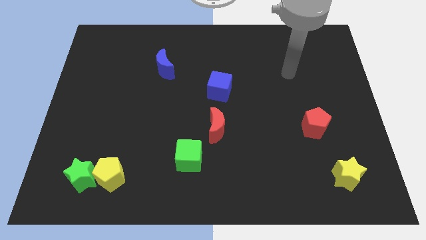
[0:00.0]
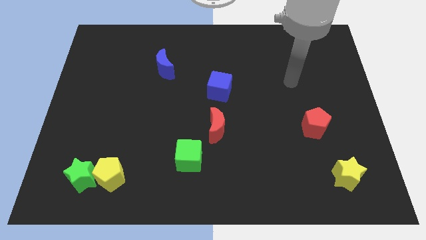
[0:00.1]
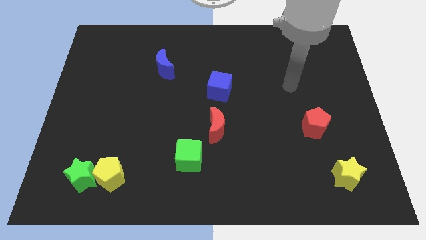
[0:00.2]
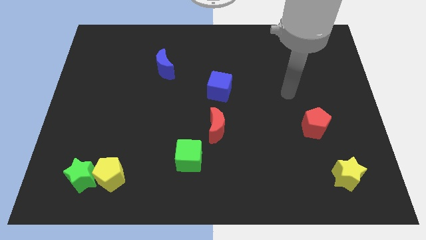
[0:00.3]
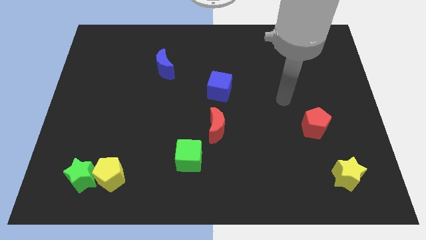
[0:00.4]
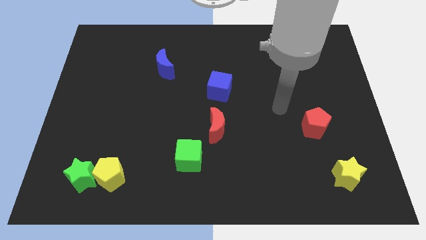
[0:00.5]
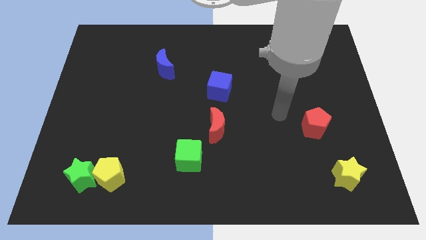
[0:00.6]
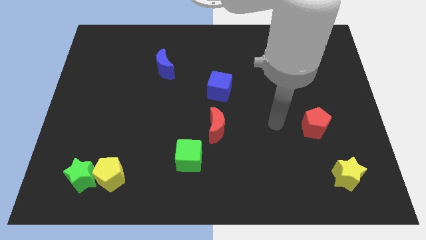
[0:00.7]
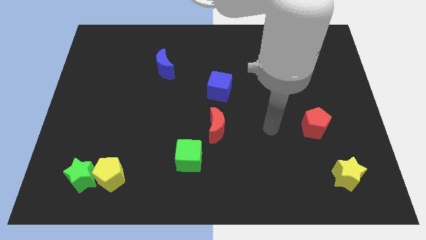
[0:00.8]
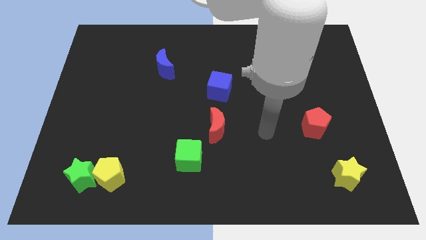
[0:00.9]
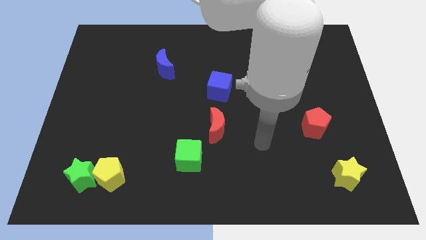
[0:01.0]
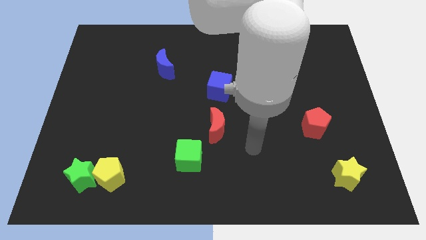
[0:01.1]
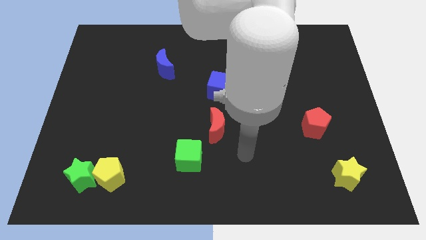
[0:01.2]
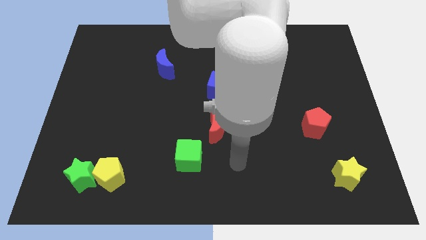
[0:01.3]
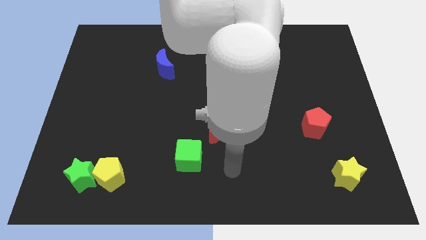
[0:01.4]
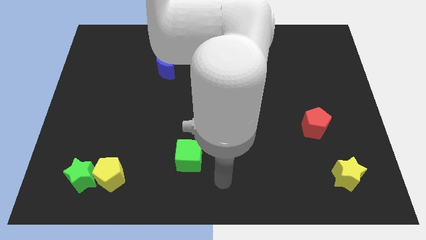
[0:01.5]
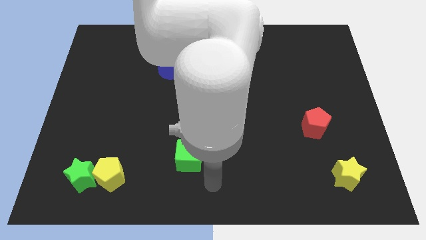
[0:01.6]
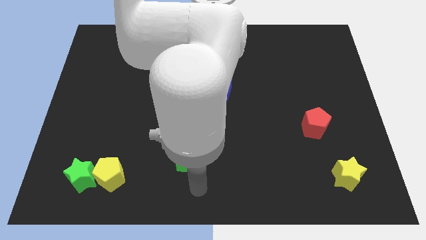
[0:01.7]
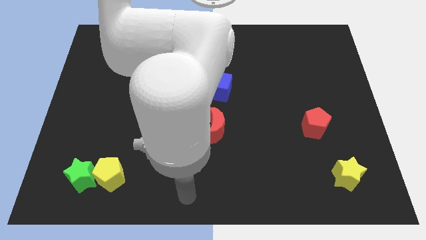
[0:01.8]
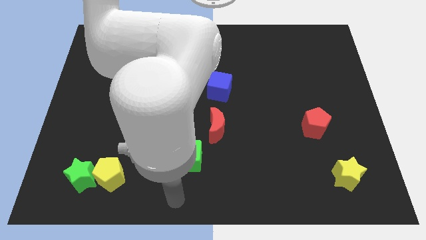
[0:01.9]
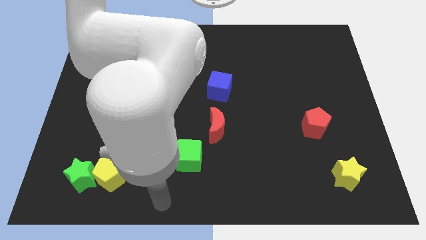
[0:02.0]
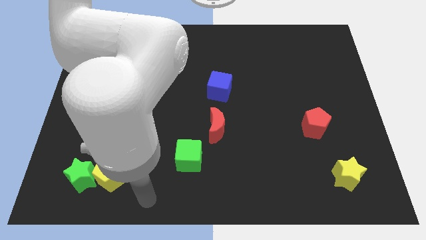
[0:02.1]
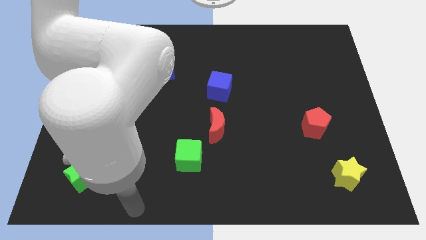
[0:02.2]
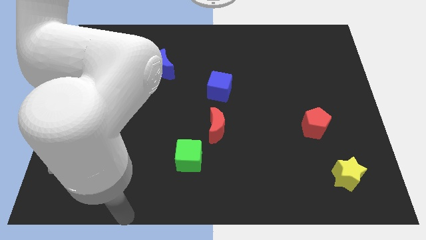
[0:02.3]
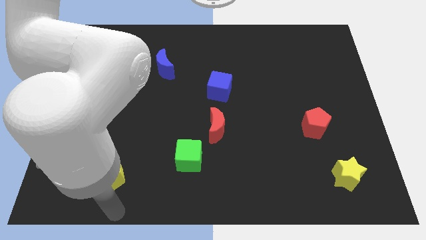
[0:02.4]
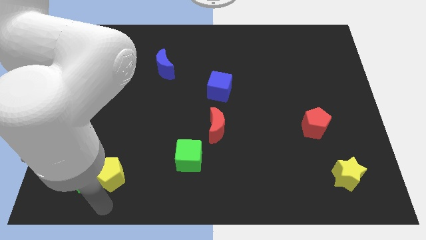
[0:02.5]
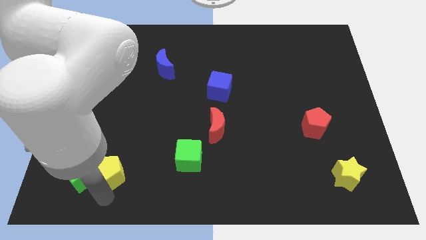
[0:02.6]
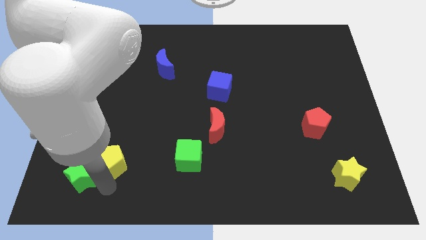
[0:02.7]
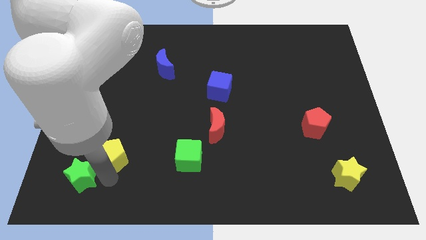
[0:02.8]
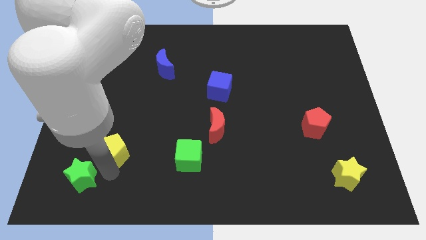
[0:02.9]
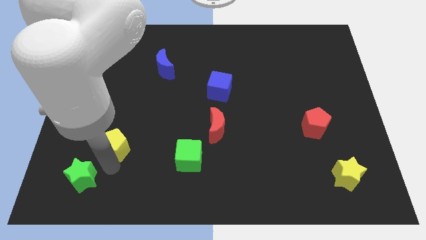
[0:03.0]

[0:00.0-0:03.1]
slide the yellow pentagon up a little bit

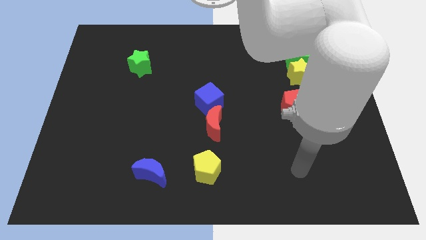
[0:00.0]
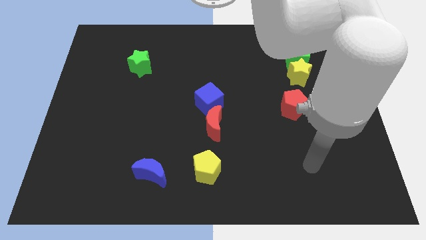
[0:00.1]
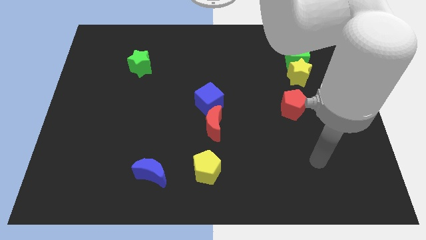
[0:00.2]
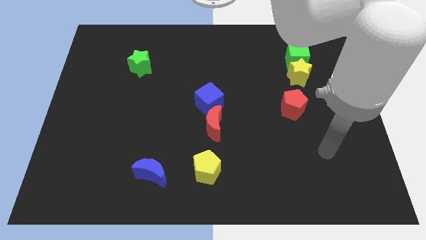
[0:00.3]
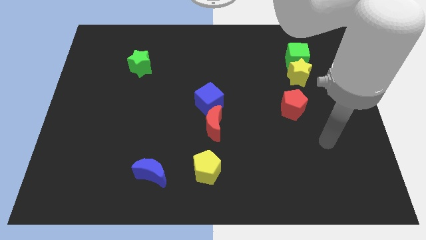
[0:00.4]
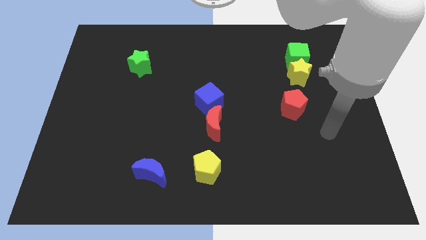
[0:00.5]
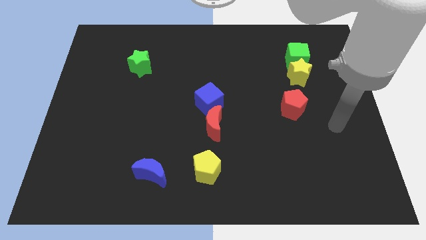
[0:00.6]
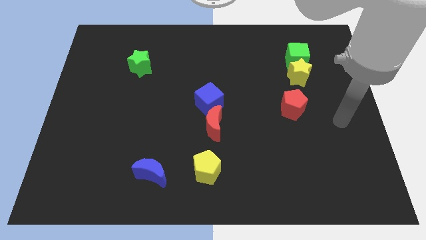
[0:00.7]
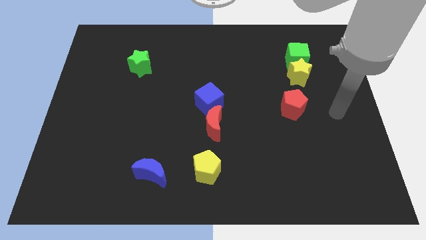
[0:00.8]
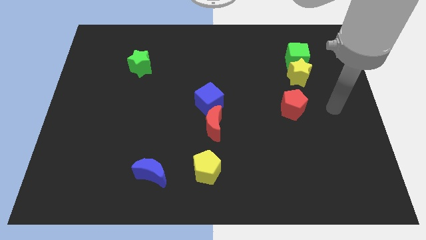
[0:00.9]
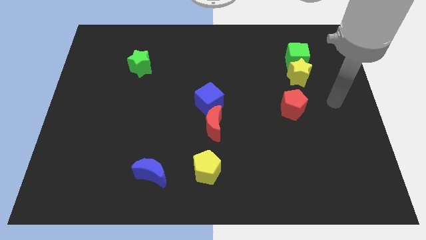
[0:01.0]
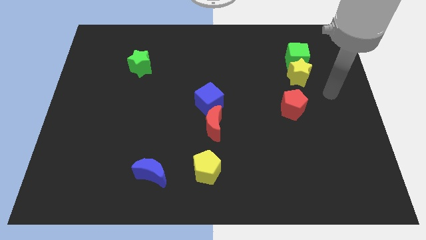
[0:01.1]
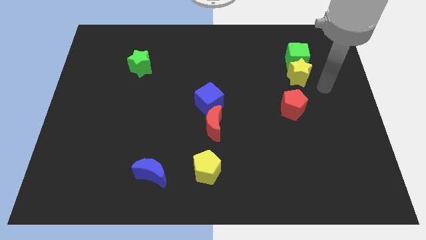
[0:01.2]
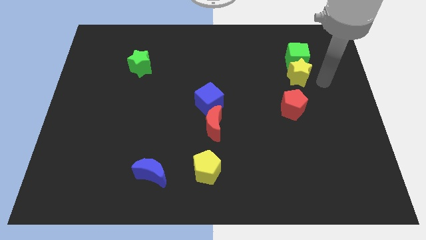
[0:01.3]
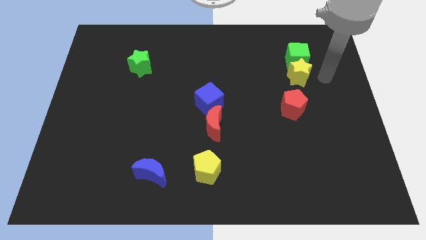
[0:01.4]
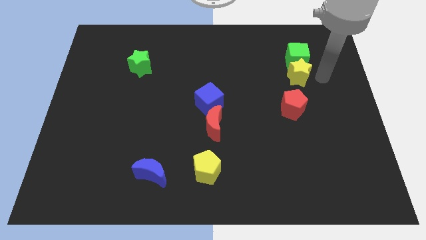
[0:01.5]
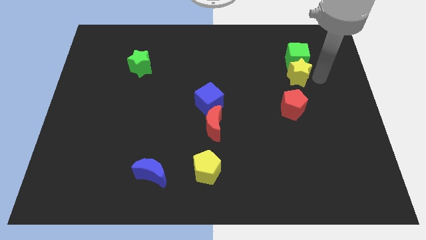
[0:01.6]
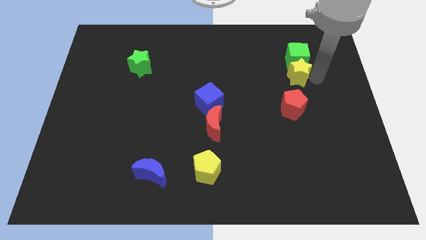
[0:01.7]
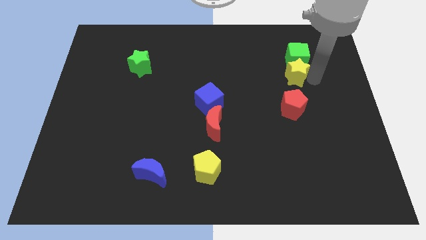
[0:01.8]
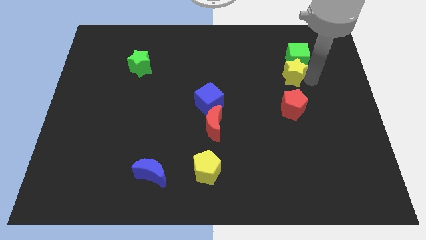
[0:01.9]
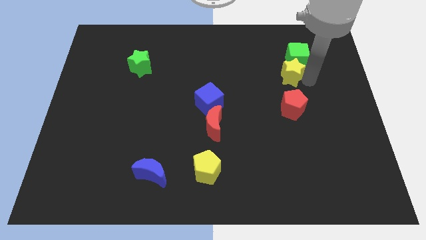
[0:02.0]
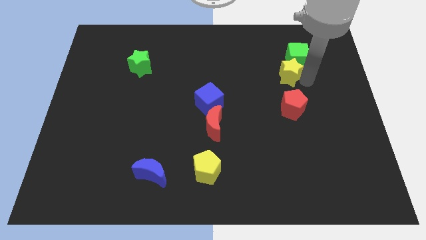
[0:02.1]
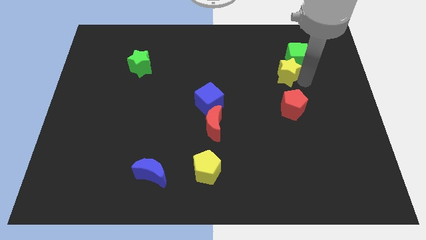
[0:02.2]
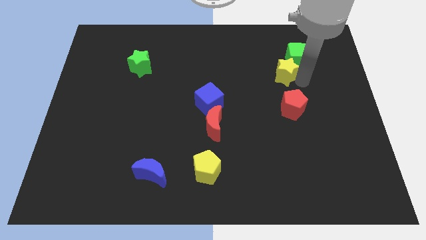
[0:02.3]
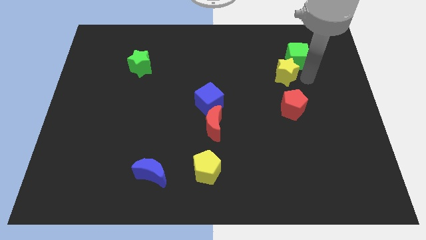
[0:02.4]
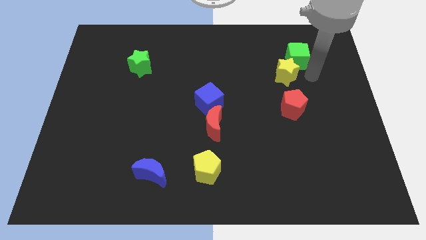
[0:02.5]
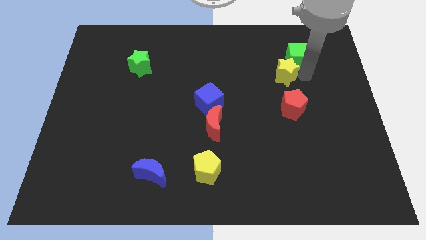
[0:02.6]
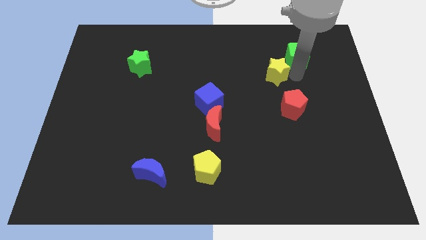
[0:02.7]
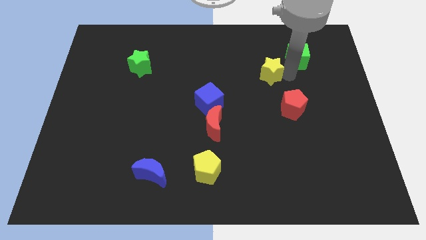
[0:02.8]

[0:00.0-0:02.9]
move the yellow star somewhat to the left

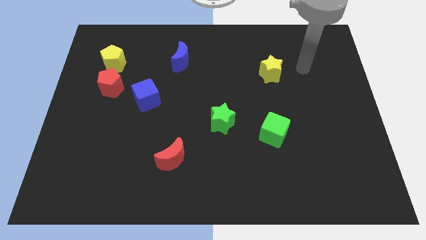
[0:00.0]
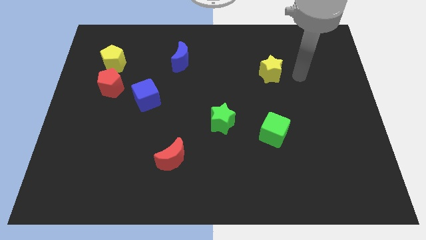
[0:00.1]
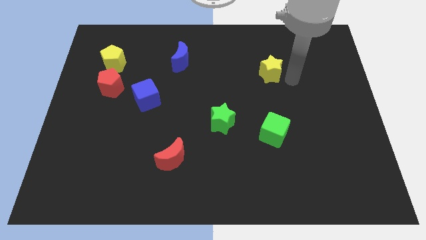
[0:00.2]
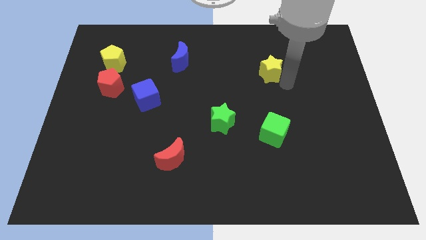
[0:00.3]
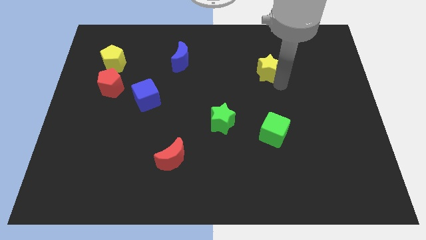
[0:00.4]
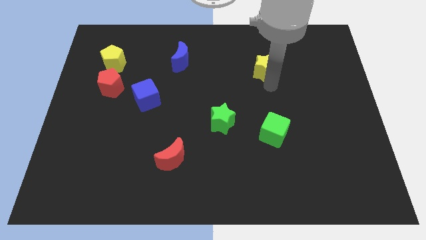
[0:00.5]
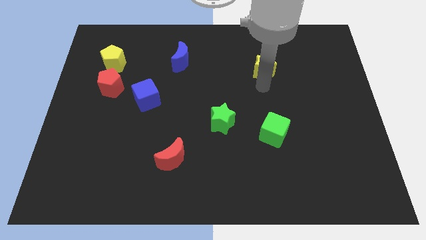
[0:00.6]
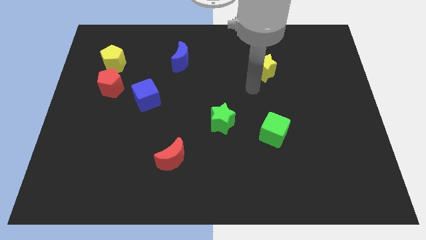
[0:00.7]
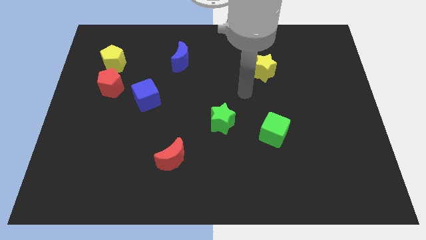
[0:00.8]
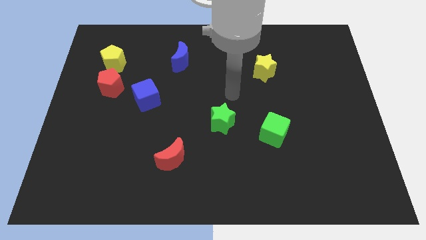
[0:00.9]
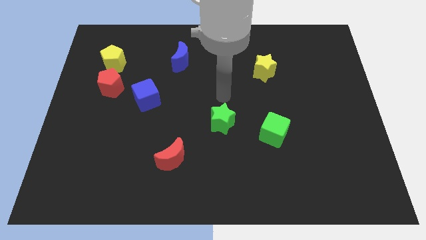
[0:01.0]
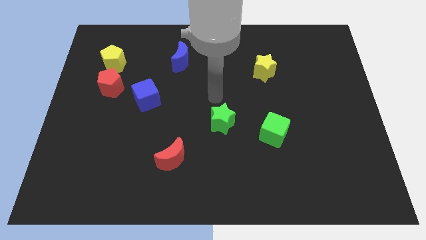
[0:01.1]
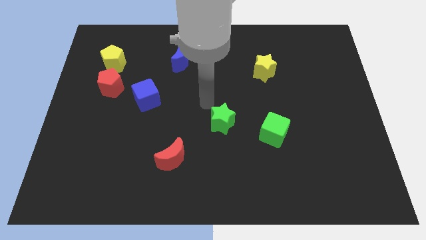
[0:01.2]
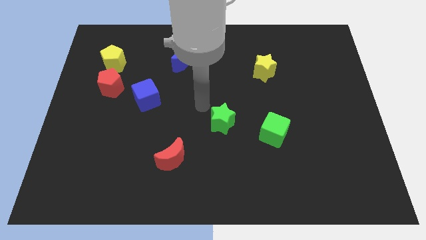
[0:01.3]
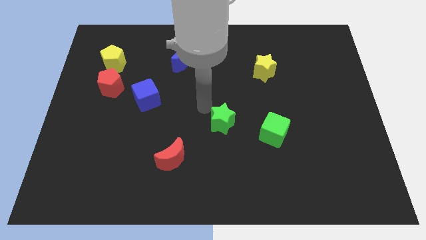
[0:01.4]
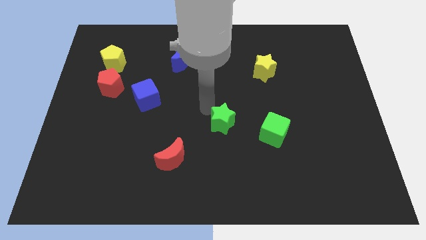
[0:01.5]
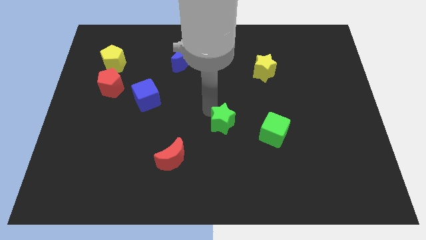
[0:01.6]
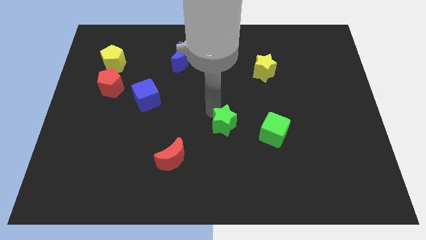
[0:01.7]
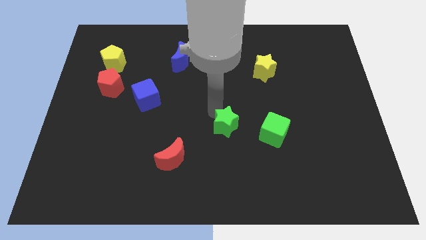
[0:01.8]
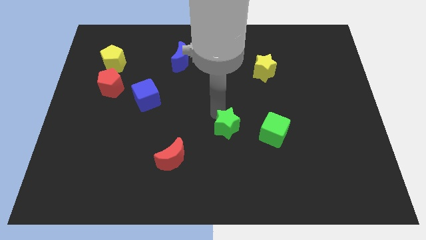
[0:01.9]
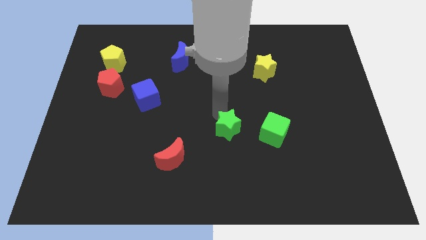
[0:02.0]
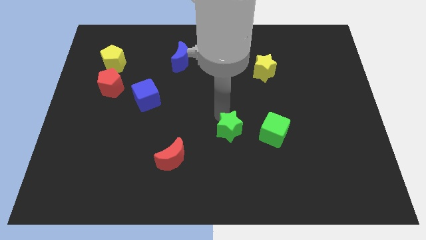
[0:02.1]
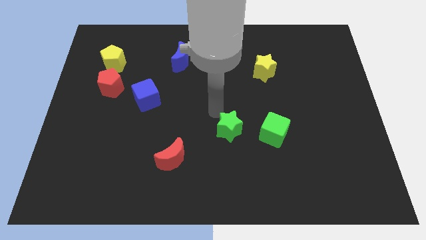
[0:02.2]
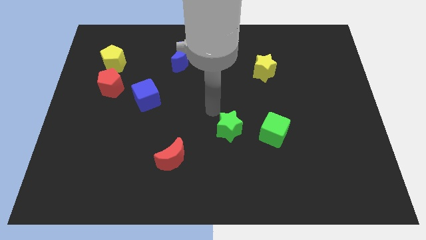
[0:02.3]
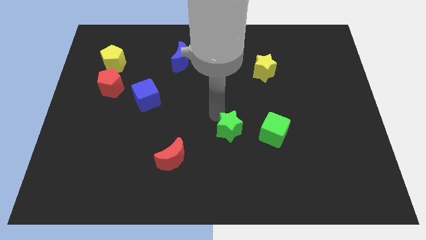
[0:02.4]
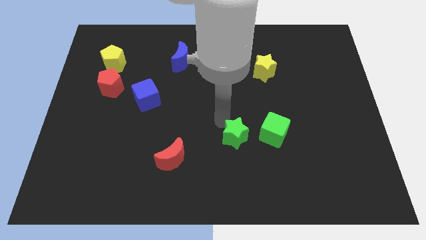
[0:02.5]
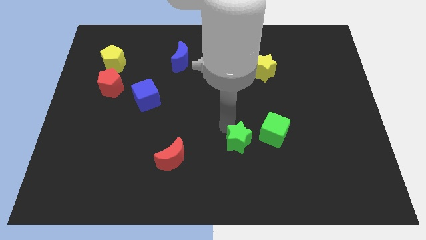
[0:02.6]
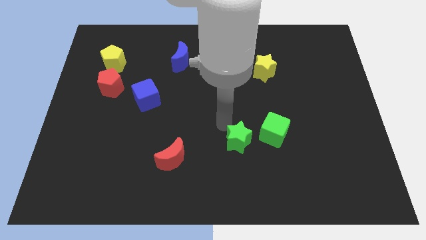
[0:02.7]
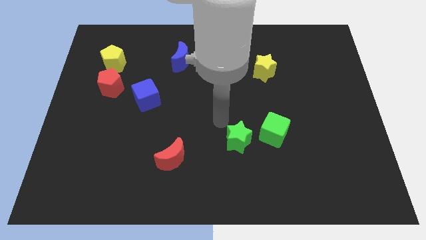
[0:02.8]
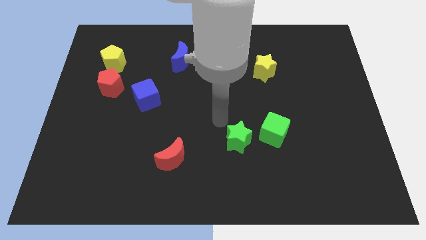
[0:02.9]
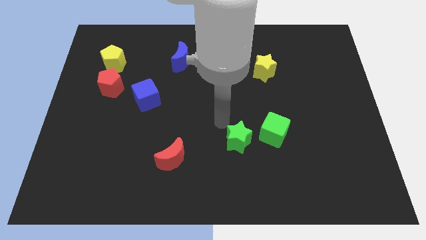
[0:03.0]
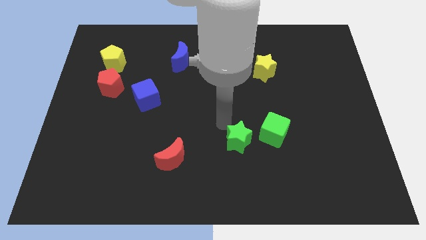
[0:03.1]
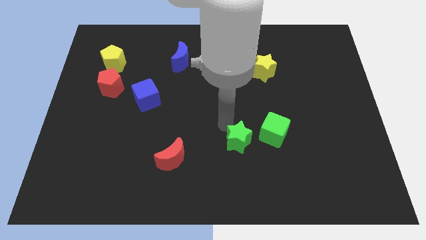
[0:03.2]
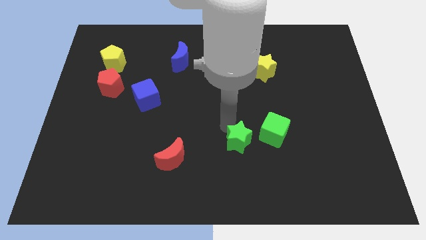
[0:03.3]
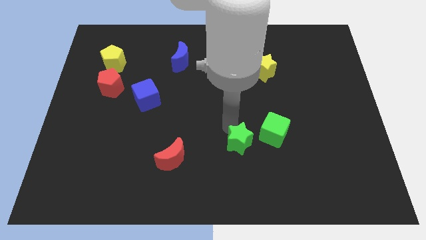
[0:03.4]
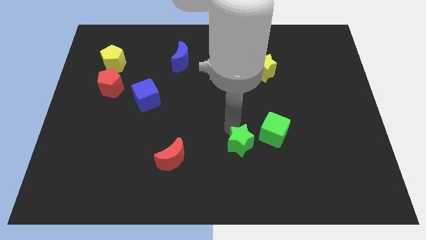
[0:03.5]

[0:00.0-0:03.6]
move the green star downwards and then right a little bit
